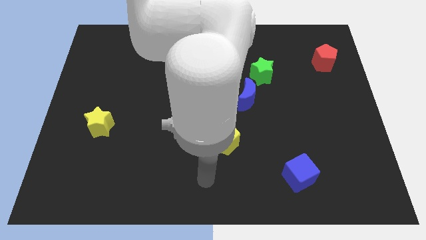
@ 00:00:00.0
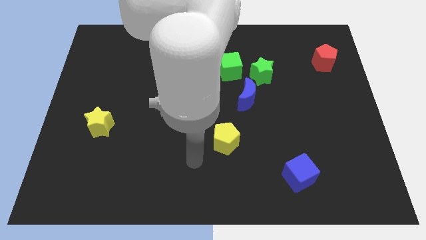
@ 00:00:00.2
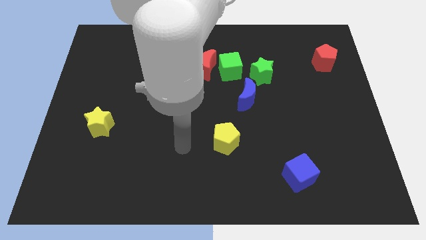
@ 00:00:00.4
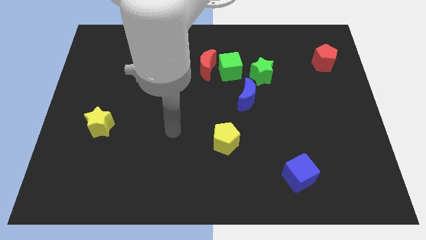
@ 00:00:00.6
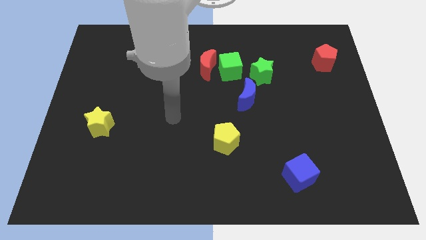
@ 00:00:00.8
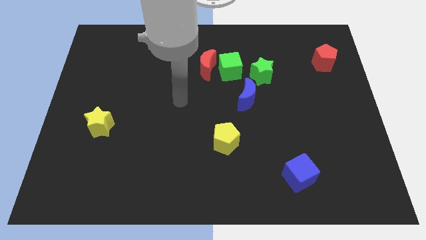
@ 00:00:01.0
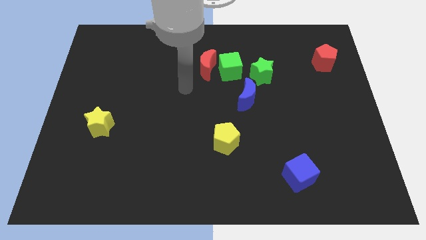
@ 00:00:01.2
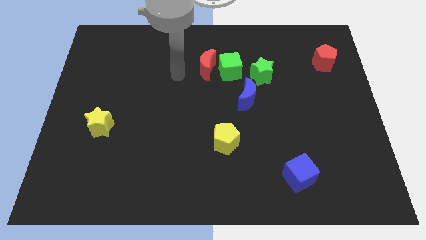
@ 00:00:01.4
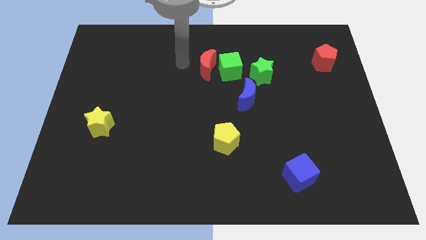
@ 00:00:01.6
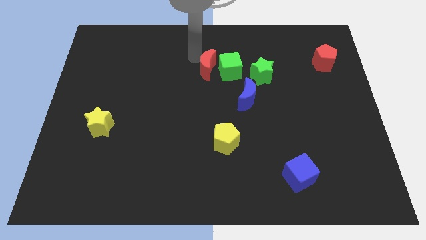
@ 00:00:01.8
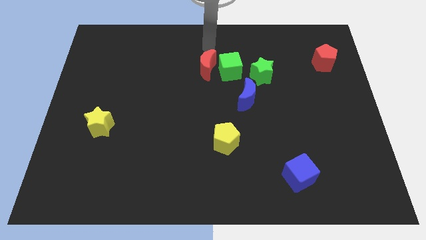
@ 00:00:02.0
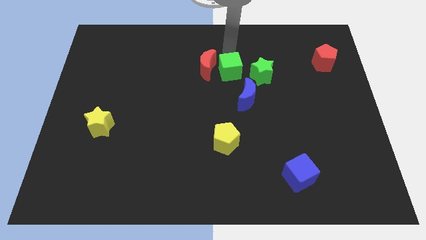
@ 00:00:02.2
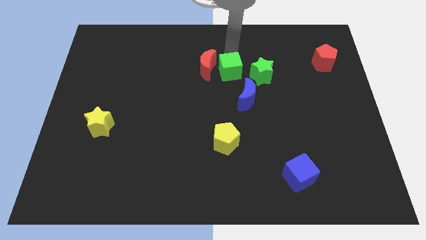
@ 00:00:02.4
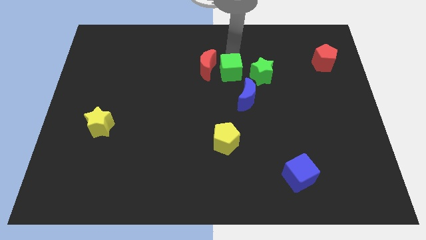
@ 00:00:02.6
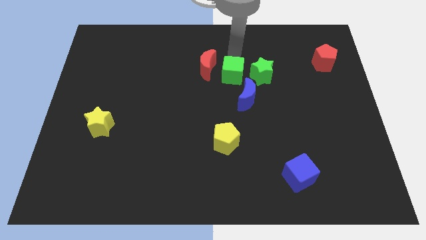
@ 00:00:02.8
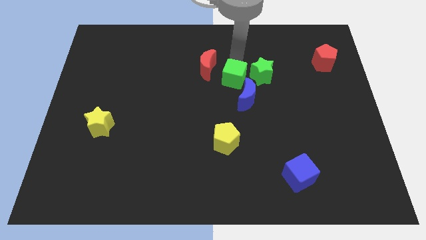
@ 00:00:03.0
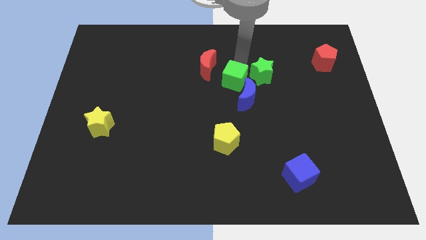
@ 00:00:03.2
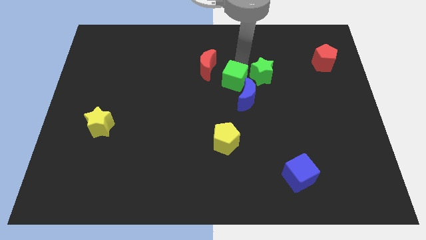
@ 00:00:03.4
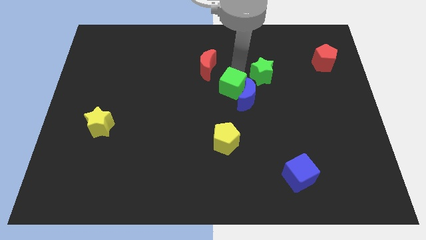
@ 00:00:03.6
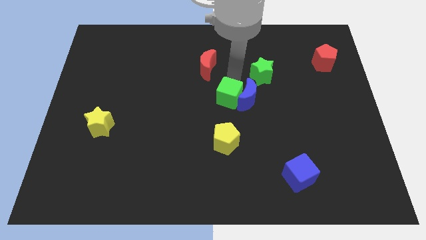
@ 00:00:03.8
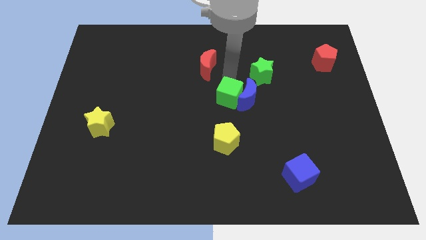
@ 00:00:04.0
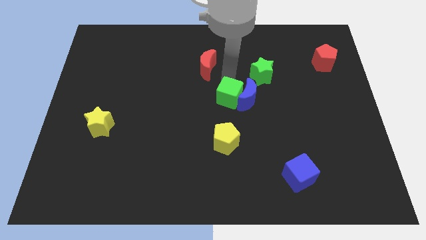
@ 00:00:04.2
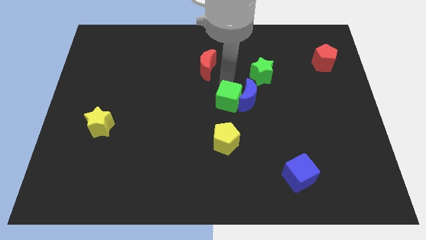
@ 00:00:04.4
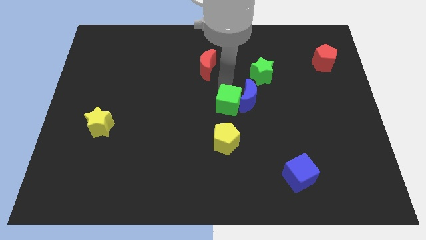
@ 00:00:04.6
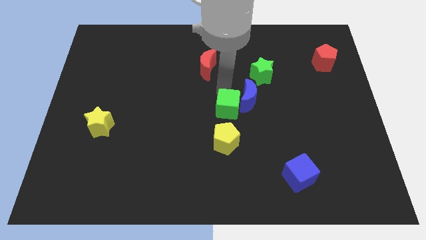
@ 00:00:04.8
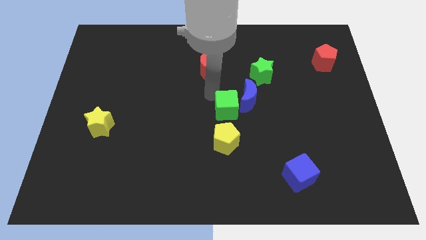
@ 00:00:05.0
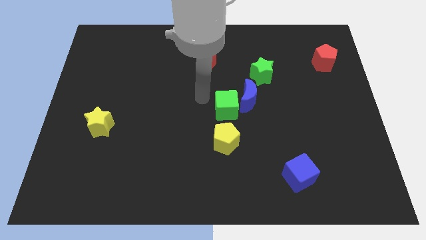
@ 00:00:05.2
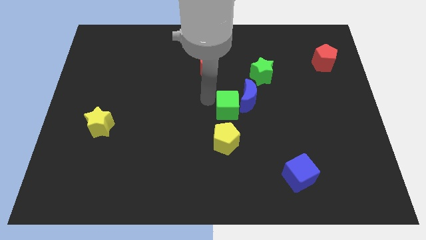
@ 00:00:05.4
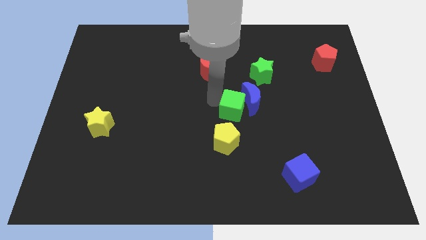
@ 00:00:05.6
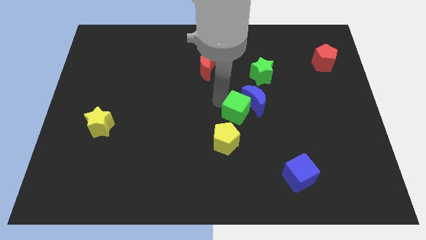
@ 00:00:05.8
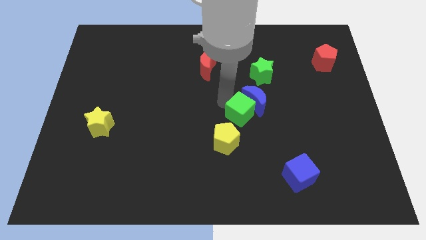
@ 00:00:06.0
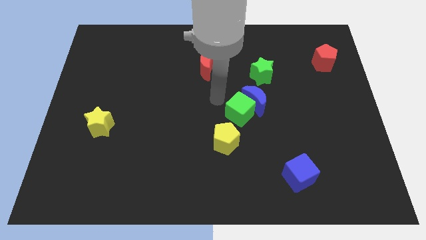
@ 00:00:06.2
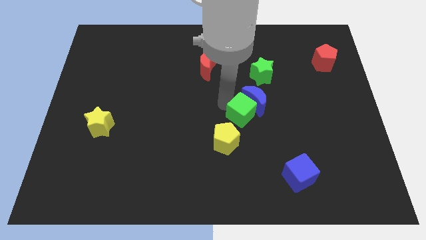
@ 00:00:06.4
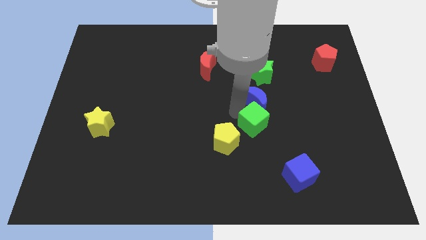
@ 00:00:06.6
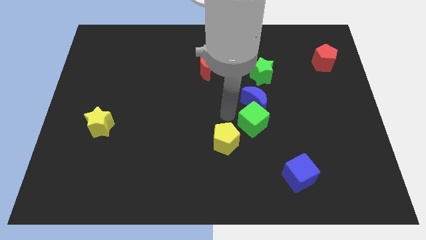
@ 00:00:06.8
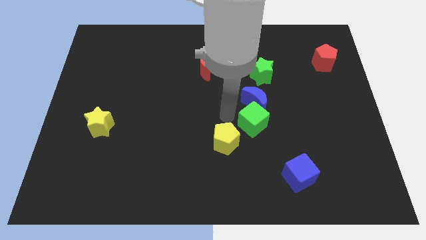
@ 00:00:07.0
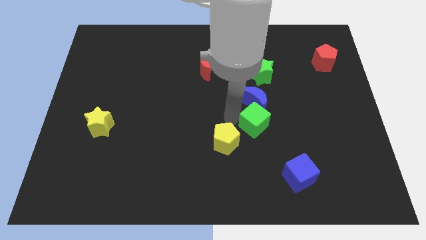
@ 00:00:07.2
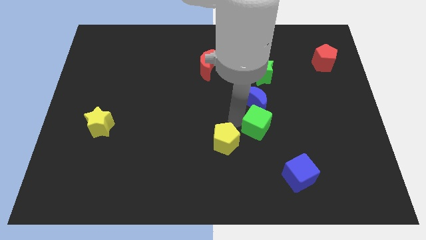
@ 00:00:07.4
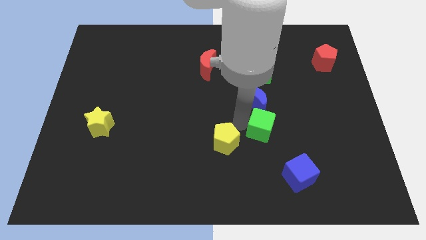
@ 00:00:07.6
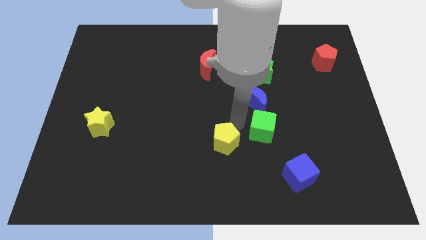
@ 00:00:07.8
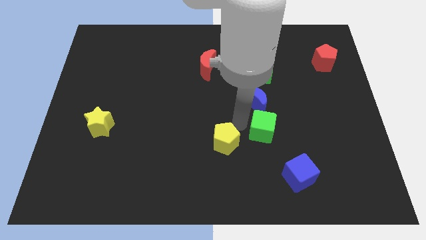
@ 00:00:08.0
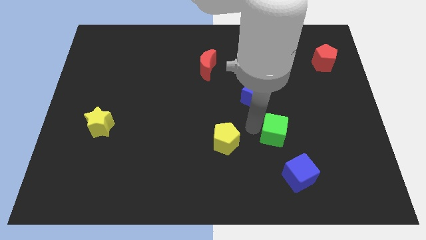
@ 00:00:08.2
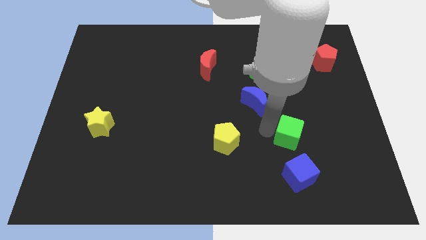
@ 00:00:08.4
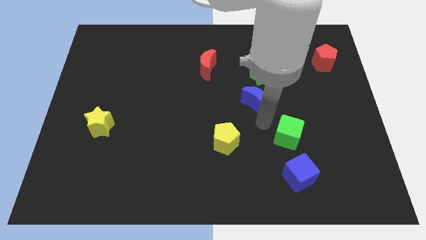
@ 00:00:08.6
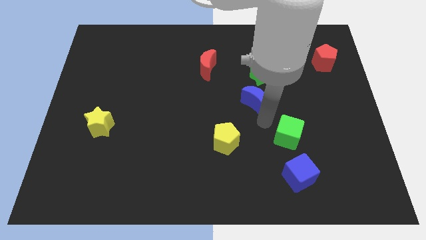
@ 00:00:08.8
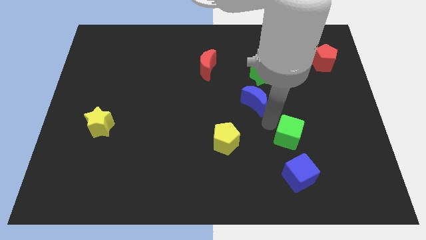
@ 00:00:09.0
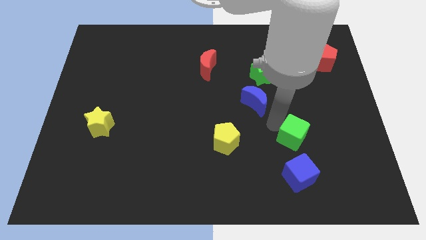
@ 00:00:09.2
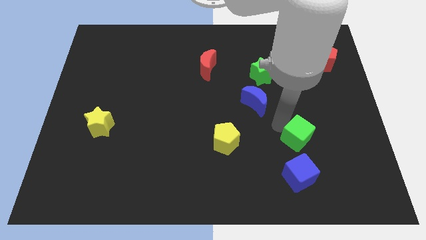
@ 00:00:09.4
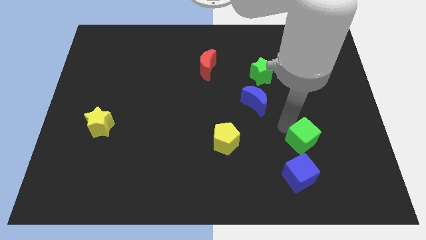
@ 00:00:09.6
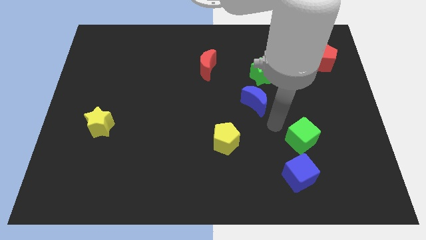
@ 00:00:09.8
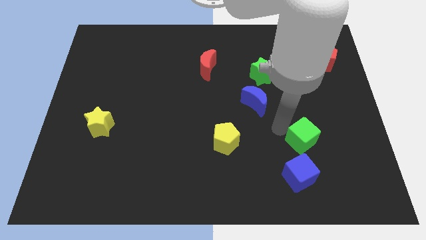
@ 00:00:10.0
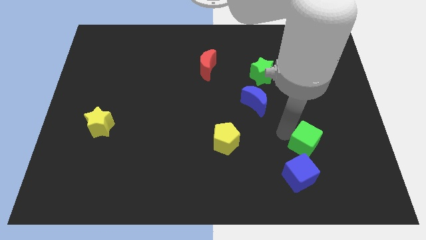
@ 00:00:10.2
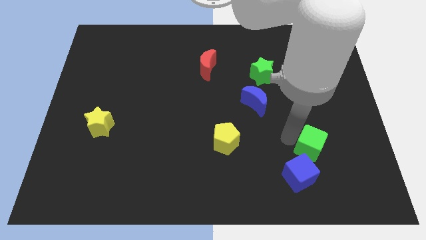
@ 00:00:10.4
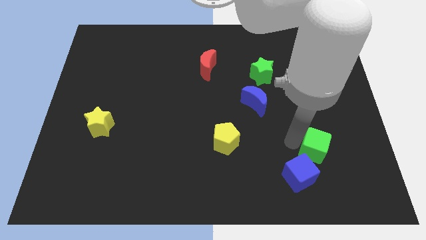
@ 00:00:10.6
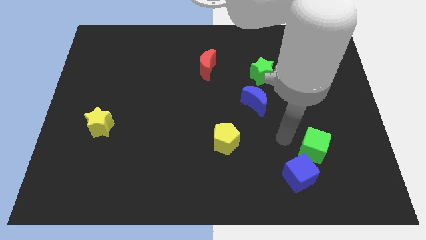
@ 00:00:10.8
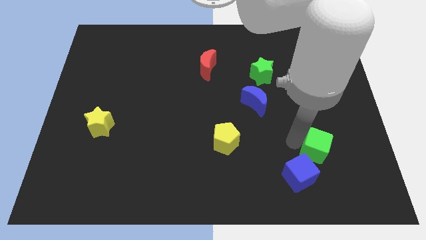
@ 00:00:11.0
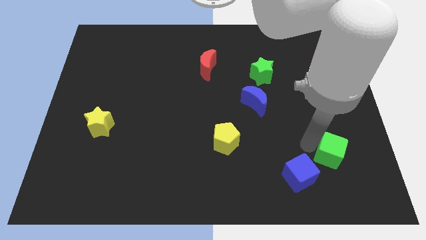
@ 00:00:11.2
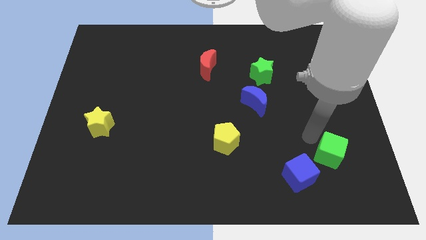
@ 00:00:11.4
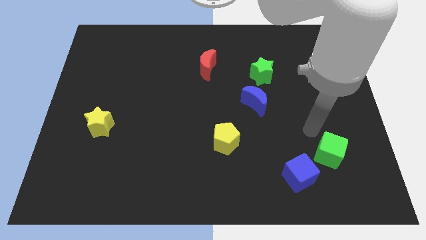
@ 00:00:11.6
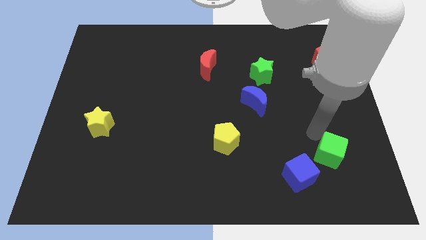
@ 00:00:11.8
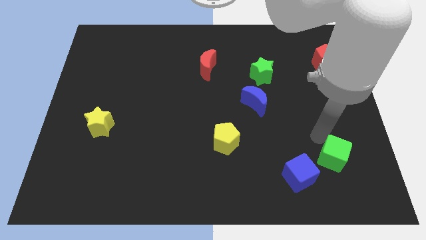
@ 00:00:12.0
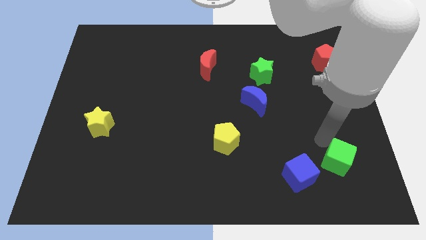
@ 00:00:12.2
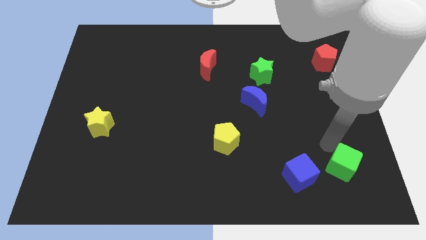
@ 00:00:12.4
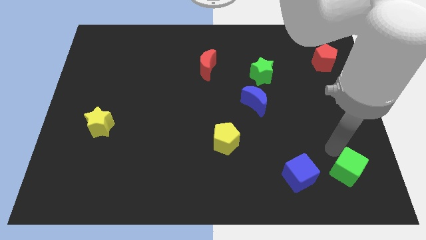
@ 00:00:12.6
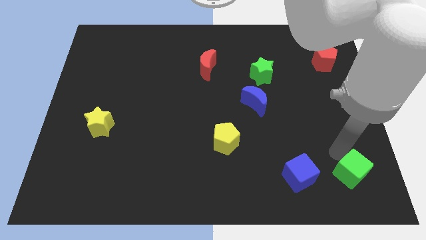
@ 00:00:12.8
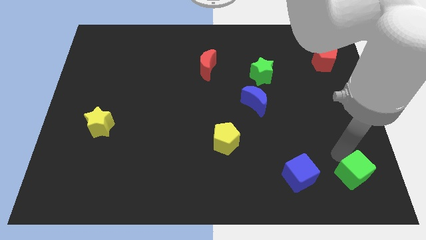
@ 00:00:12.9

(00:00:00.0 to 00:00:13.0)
move the green cube to the bottom right

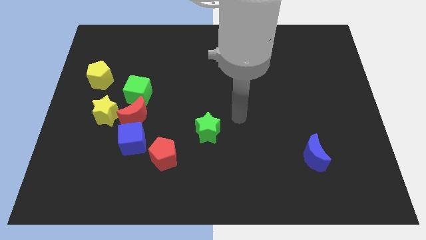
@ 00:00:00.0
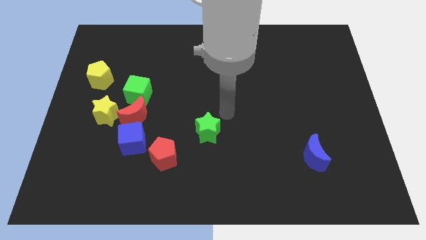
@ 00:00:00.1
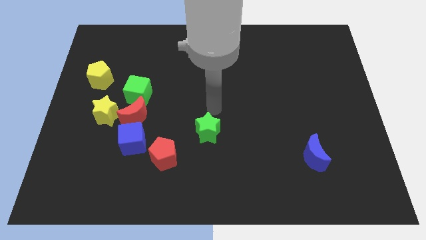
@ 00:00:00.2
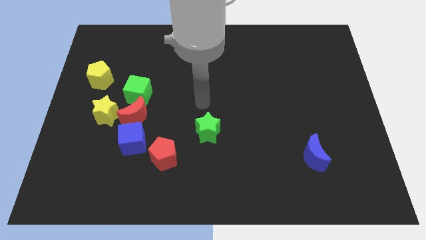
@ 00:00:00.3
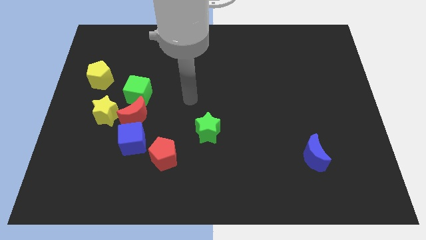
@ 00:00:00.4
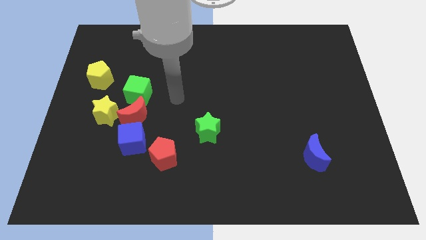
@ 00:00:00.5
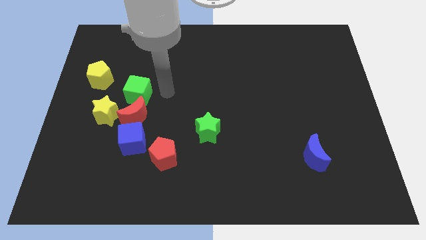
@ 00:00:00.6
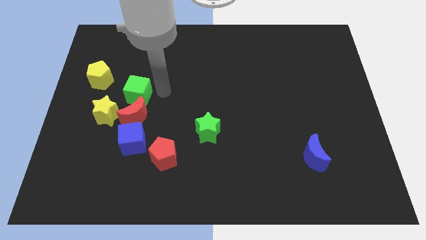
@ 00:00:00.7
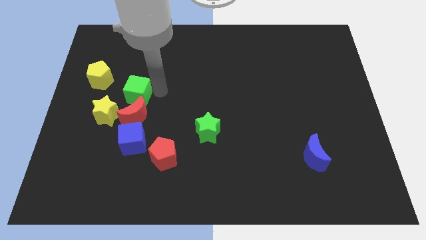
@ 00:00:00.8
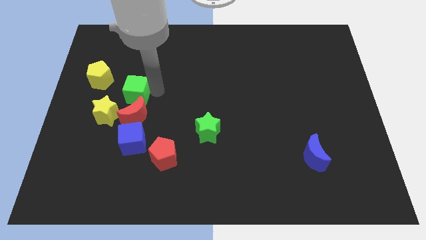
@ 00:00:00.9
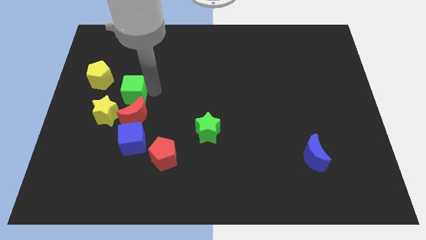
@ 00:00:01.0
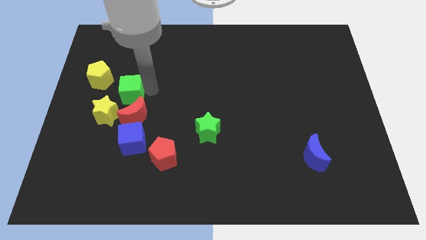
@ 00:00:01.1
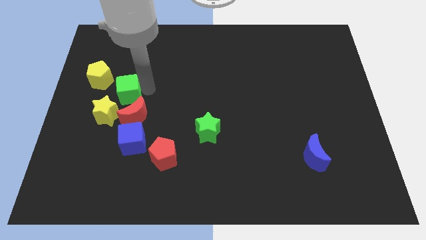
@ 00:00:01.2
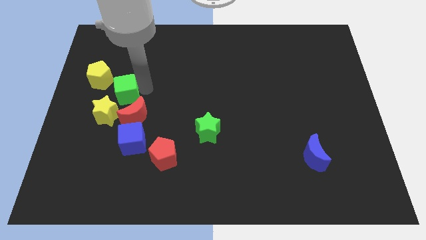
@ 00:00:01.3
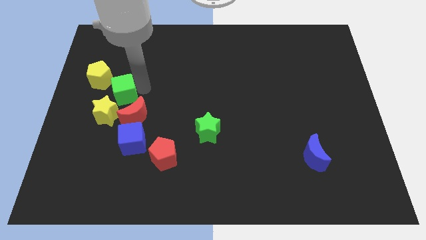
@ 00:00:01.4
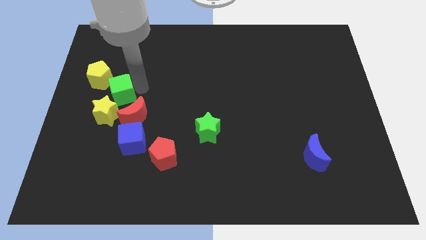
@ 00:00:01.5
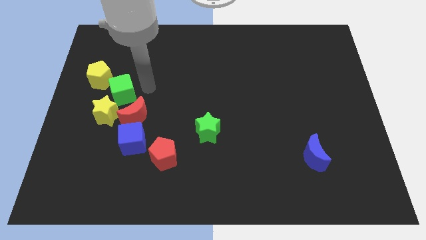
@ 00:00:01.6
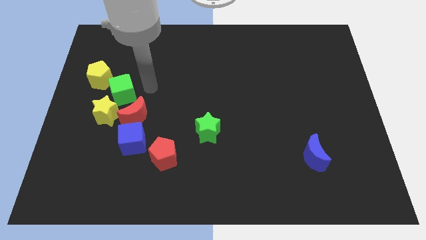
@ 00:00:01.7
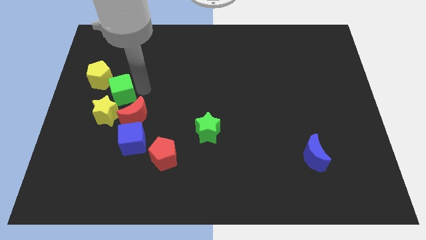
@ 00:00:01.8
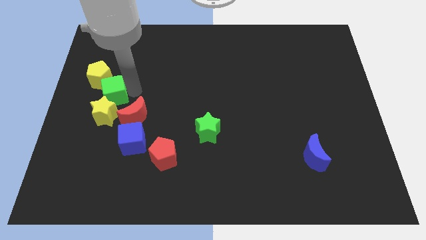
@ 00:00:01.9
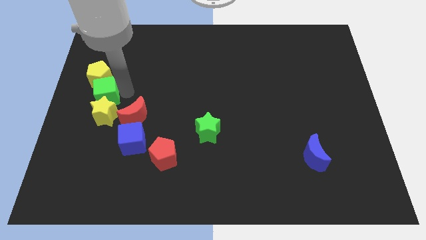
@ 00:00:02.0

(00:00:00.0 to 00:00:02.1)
move the green cube to the left side
